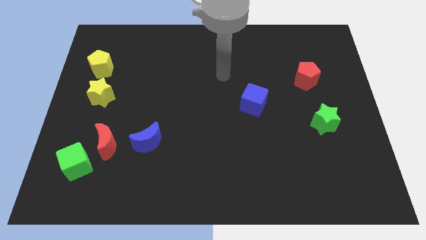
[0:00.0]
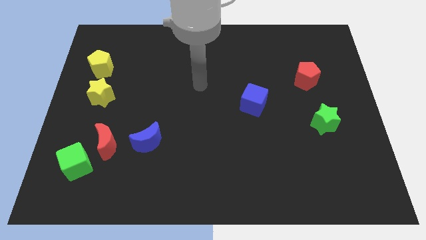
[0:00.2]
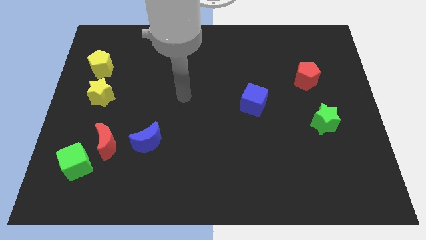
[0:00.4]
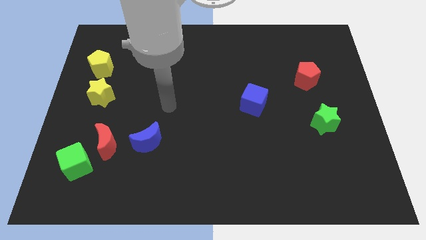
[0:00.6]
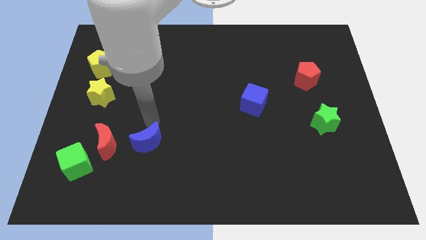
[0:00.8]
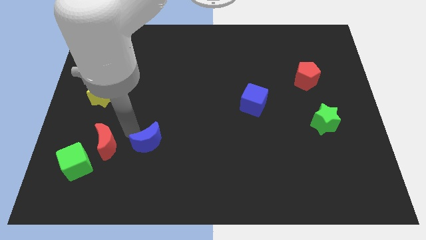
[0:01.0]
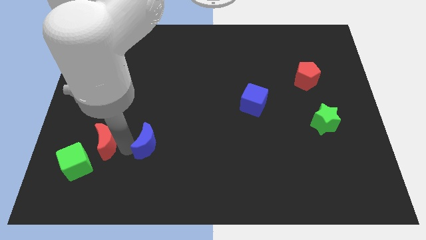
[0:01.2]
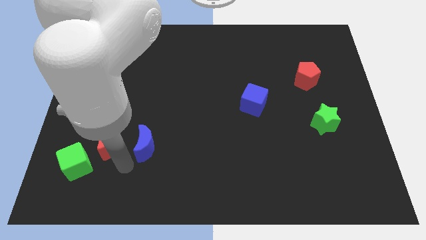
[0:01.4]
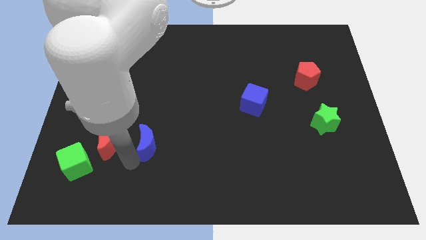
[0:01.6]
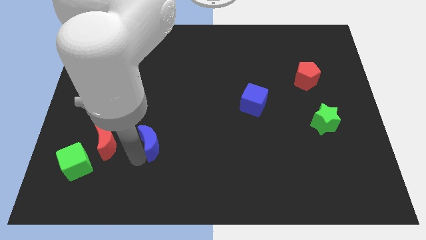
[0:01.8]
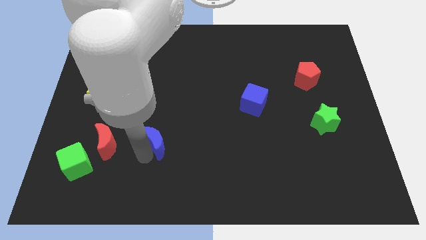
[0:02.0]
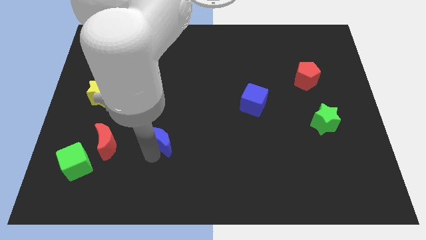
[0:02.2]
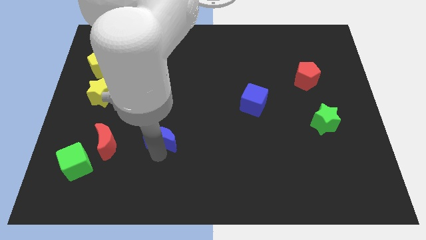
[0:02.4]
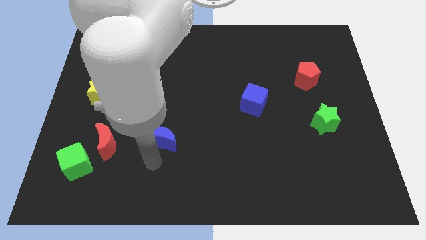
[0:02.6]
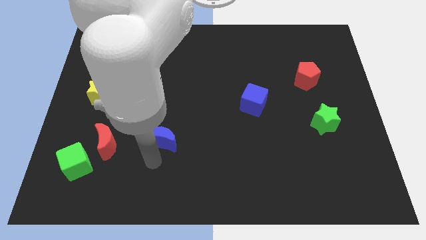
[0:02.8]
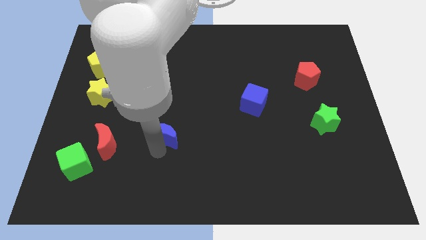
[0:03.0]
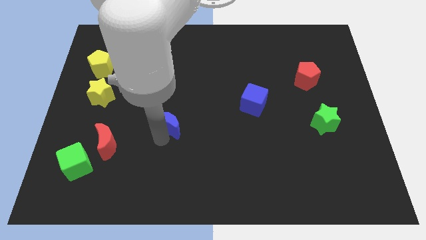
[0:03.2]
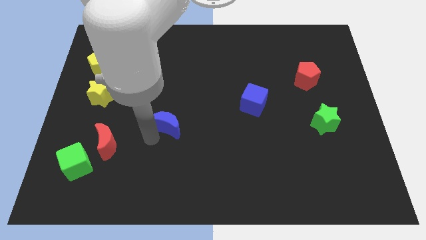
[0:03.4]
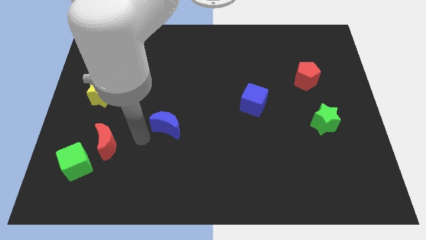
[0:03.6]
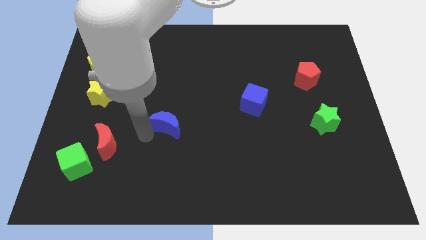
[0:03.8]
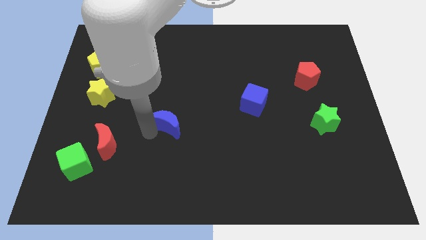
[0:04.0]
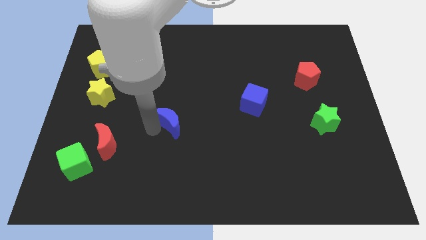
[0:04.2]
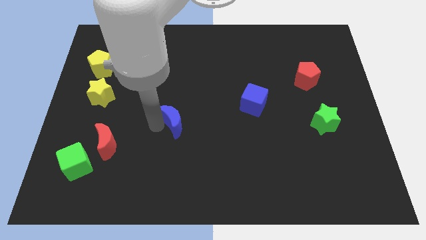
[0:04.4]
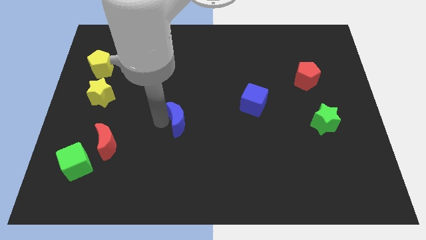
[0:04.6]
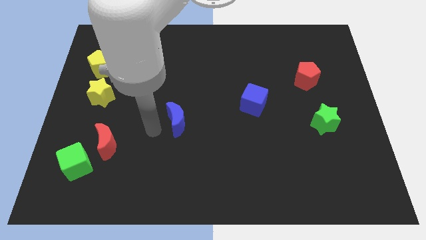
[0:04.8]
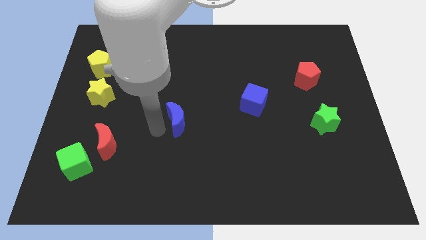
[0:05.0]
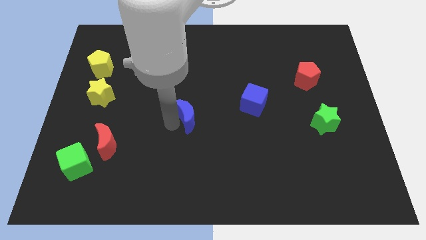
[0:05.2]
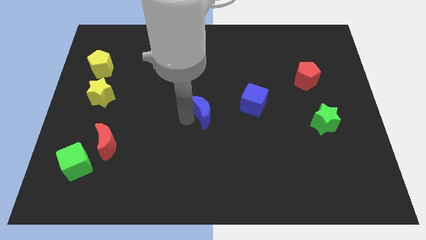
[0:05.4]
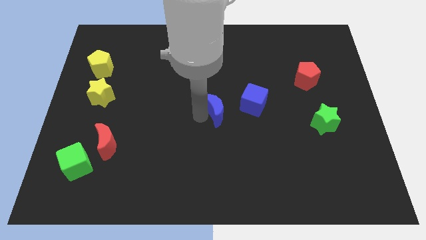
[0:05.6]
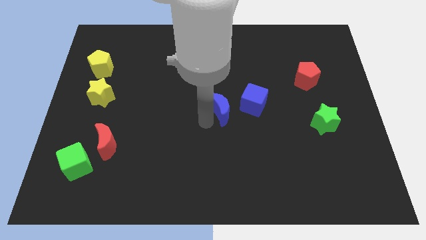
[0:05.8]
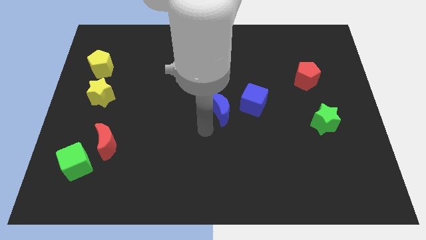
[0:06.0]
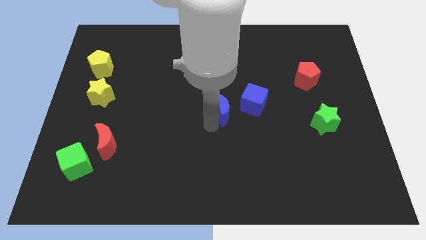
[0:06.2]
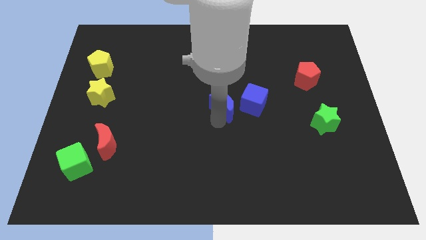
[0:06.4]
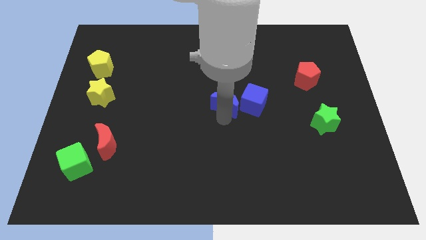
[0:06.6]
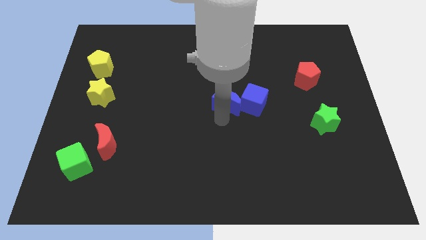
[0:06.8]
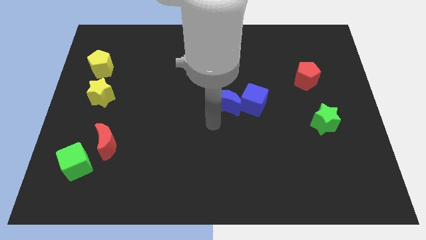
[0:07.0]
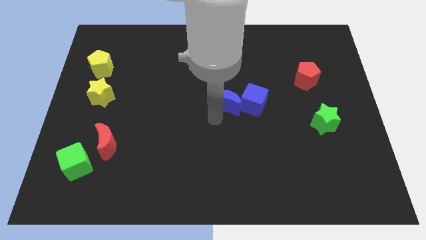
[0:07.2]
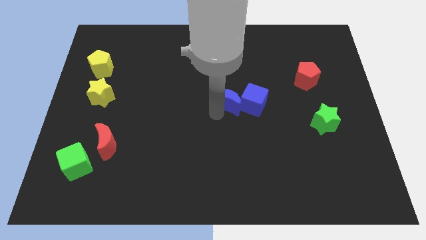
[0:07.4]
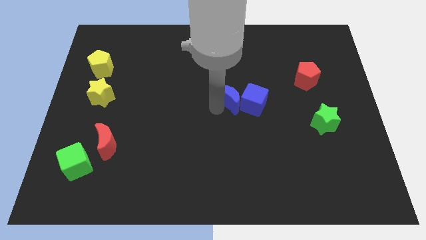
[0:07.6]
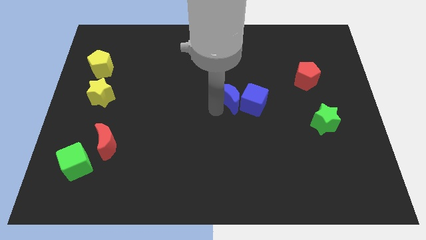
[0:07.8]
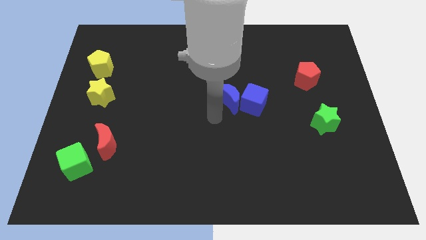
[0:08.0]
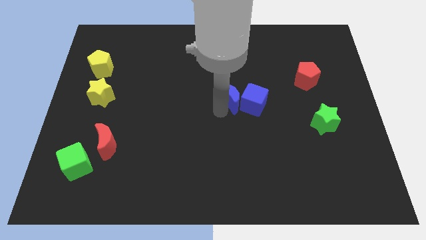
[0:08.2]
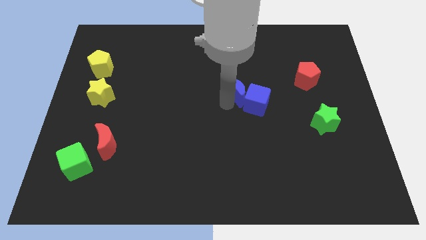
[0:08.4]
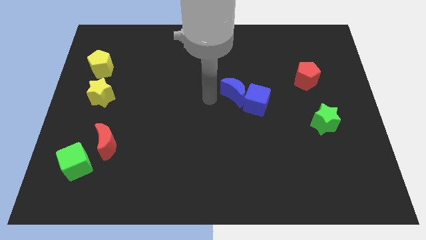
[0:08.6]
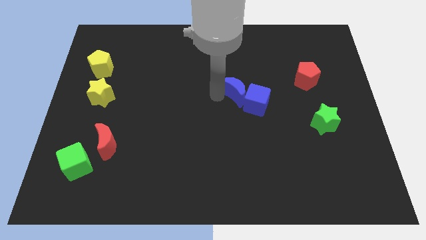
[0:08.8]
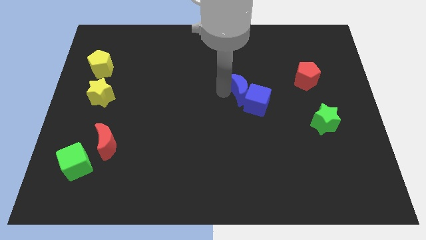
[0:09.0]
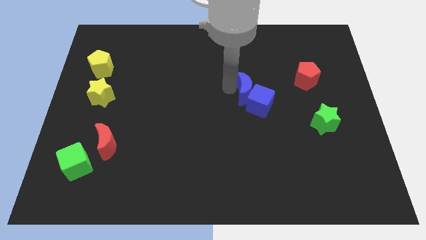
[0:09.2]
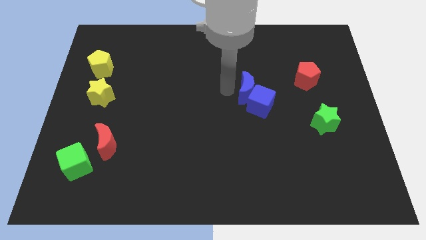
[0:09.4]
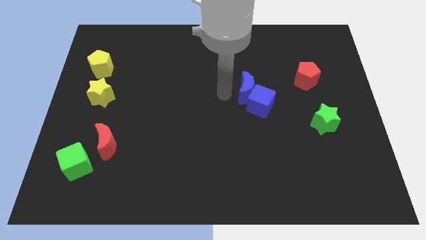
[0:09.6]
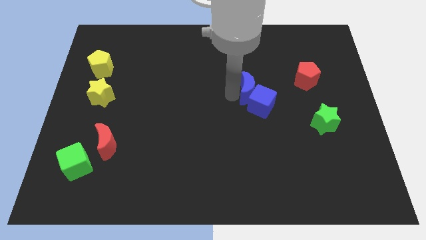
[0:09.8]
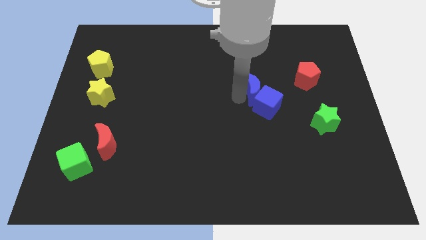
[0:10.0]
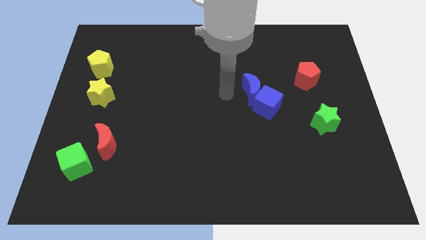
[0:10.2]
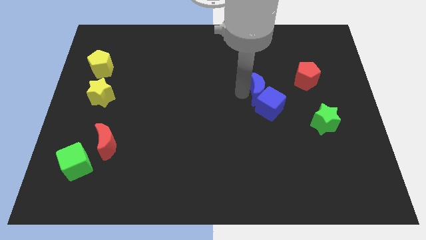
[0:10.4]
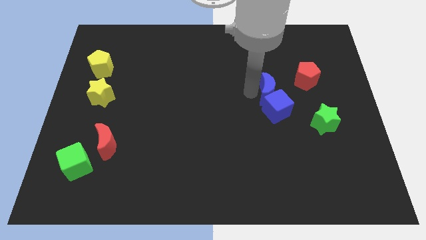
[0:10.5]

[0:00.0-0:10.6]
slide the blue moon to the top right side of the blue cube

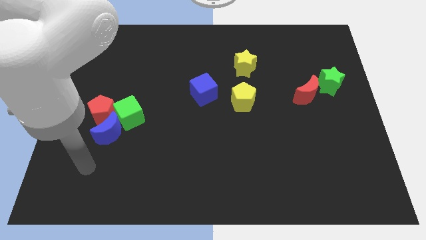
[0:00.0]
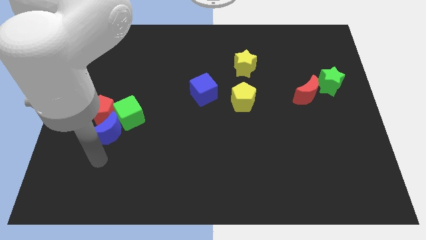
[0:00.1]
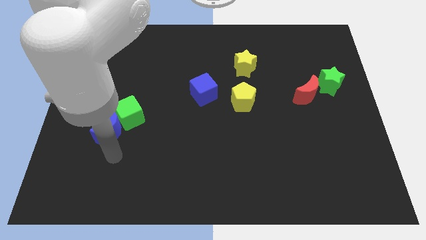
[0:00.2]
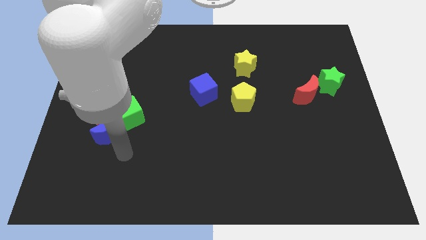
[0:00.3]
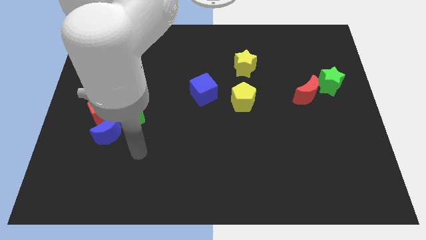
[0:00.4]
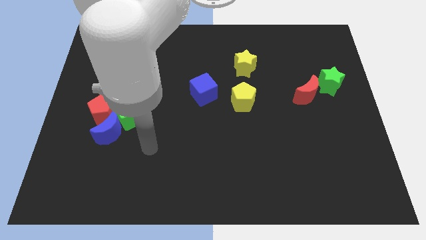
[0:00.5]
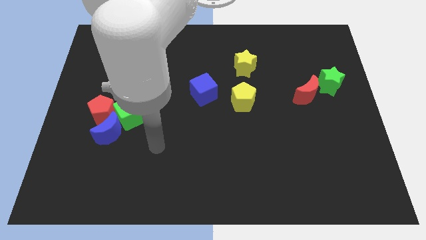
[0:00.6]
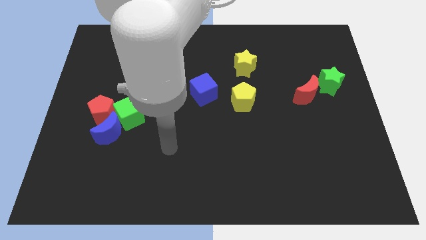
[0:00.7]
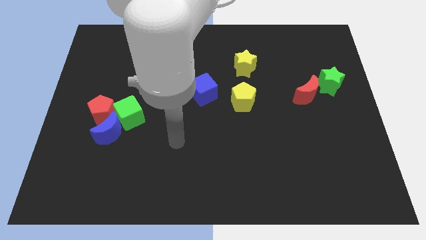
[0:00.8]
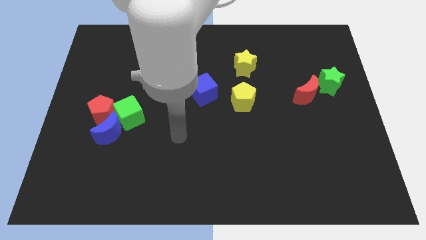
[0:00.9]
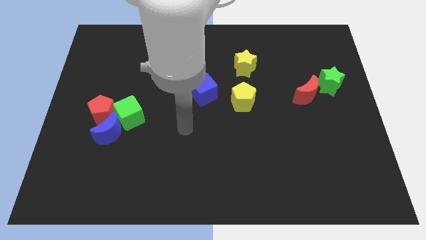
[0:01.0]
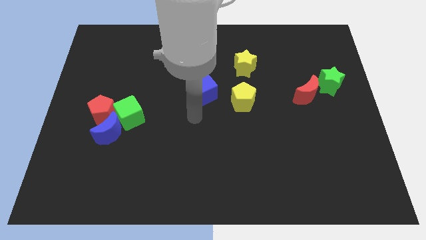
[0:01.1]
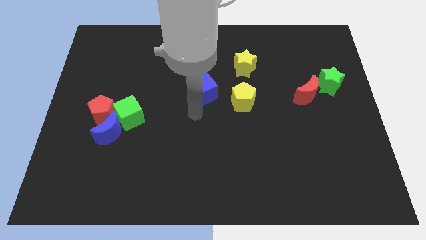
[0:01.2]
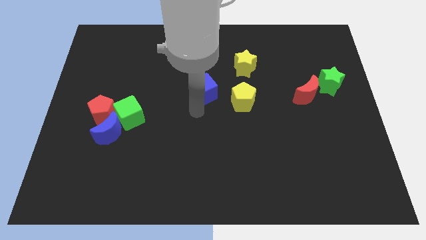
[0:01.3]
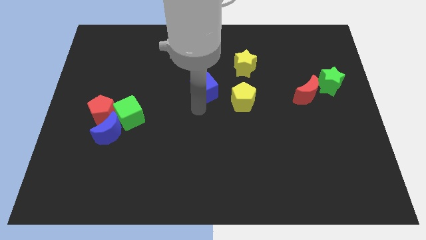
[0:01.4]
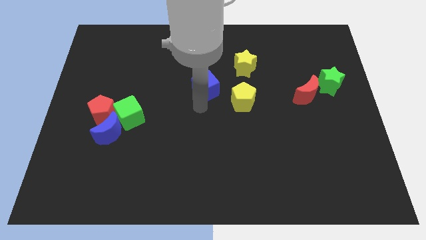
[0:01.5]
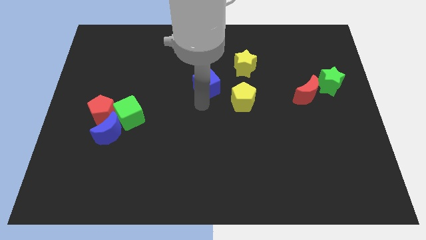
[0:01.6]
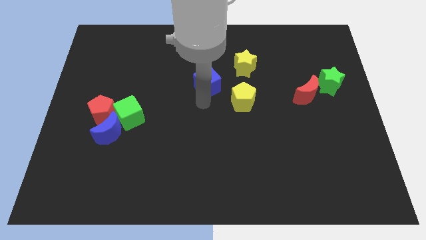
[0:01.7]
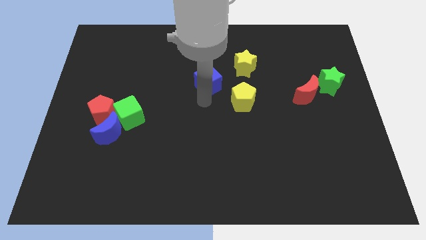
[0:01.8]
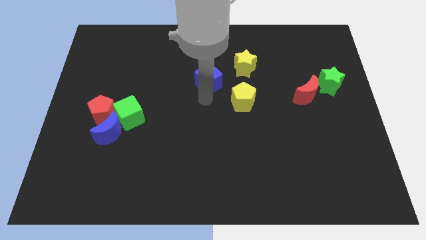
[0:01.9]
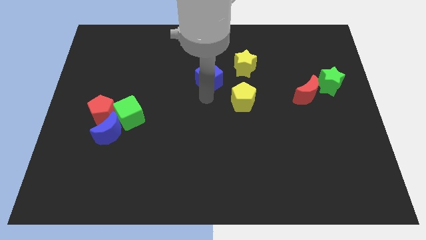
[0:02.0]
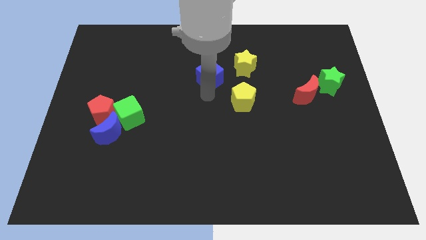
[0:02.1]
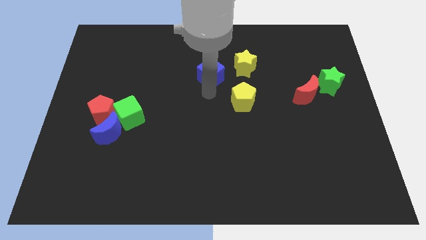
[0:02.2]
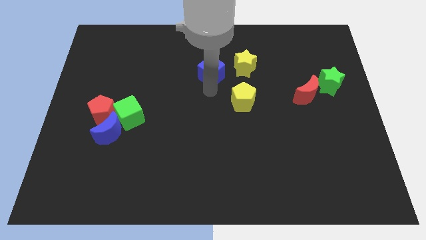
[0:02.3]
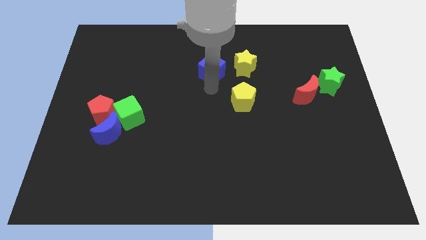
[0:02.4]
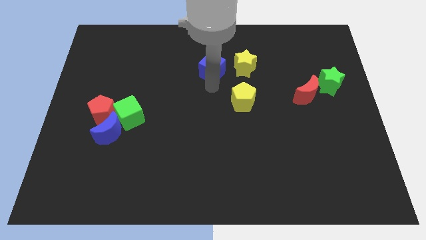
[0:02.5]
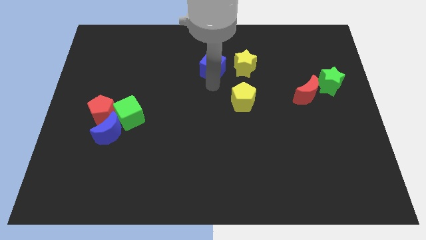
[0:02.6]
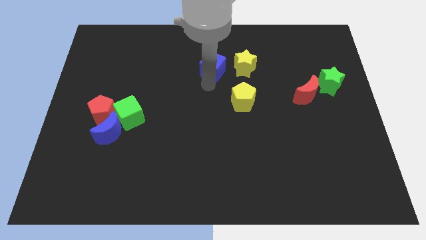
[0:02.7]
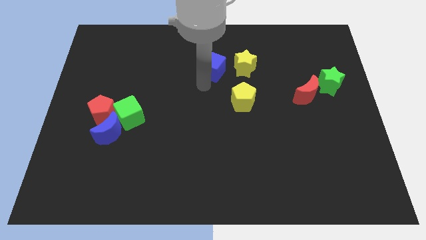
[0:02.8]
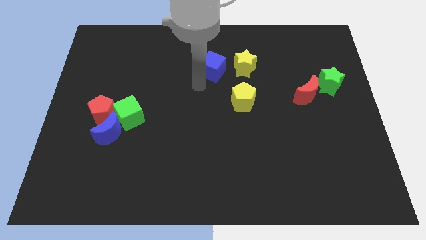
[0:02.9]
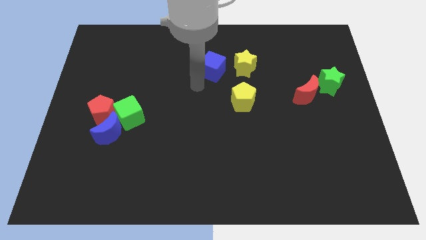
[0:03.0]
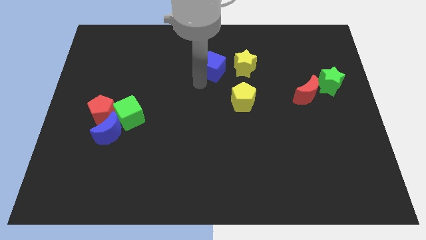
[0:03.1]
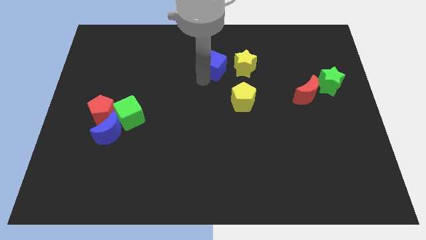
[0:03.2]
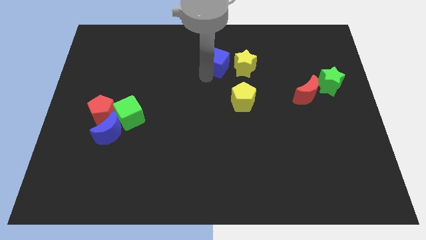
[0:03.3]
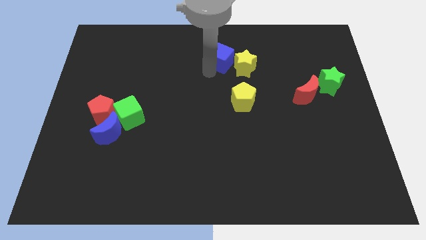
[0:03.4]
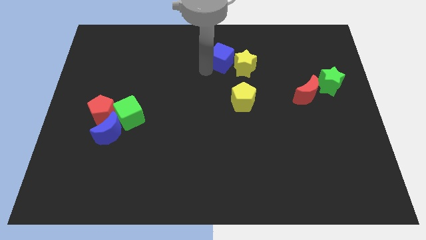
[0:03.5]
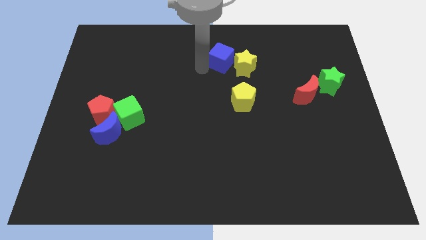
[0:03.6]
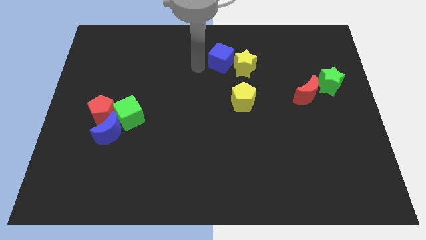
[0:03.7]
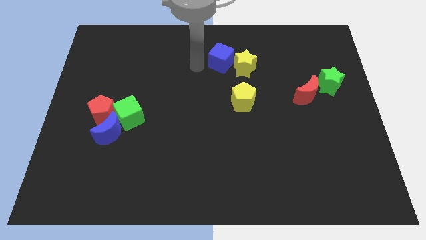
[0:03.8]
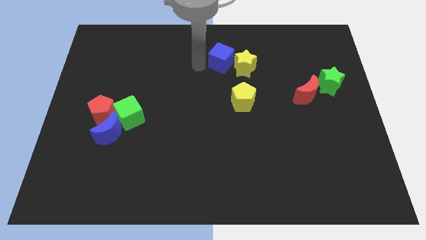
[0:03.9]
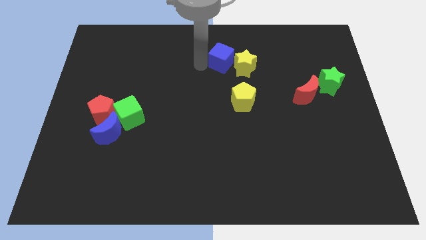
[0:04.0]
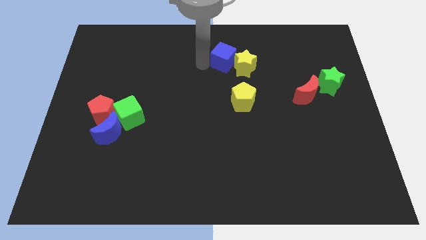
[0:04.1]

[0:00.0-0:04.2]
move the blue cube to the top of the yellow pentagon
